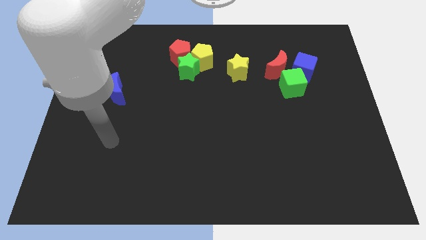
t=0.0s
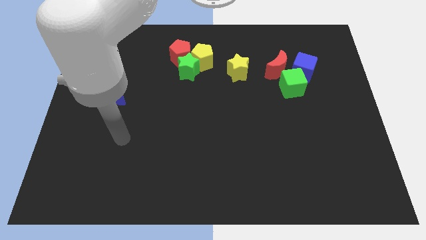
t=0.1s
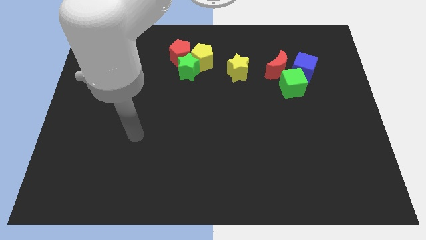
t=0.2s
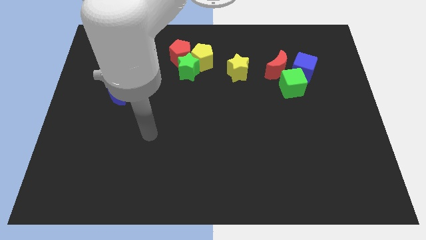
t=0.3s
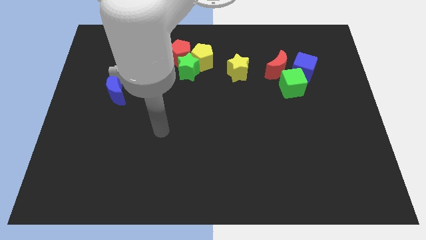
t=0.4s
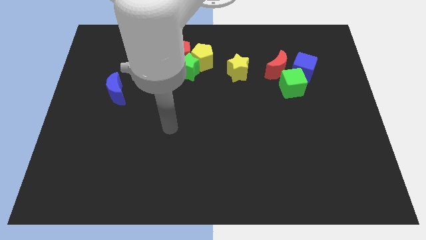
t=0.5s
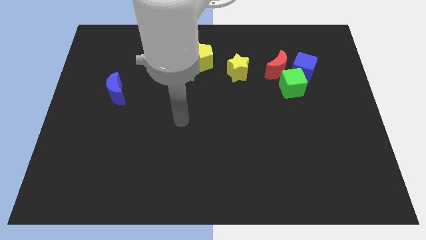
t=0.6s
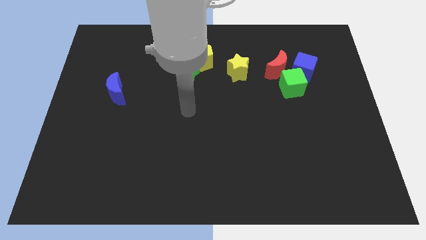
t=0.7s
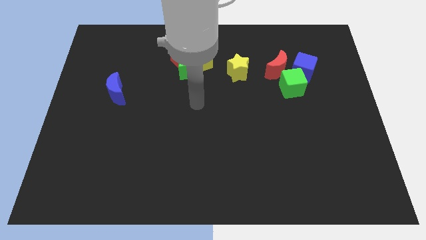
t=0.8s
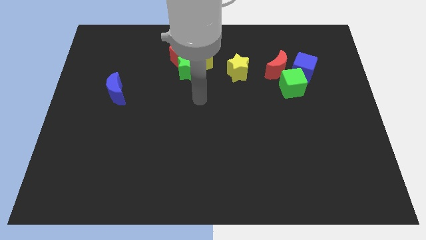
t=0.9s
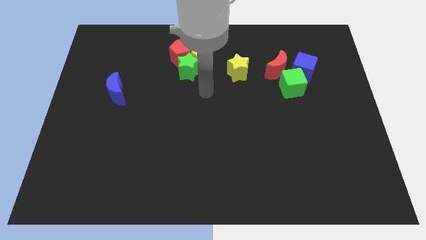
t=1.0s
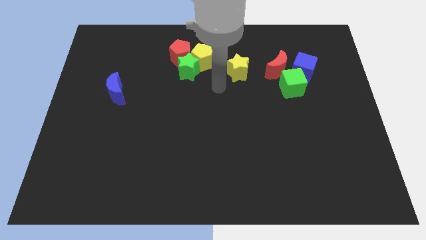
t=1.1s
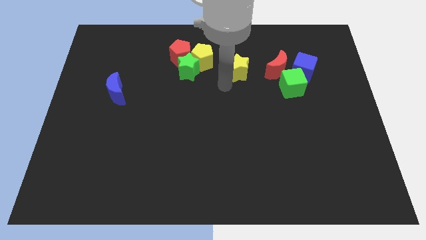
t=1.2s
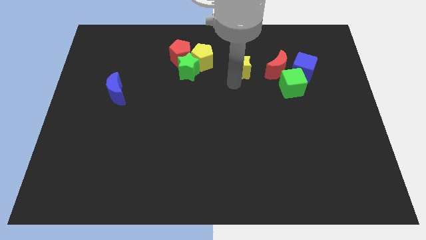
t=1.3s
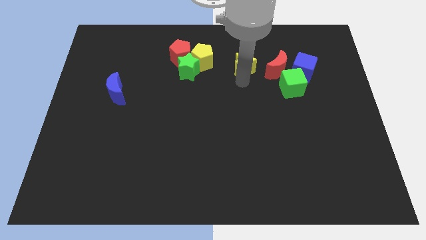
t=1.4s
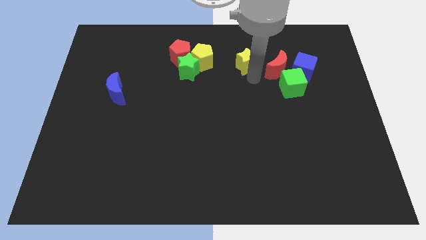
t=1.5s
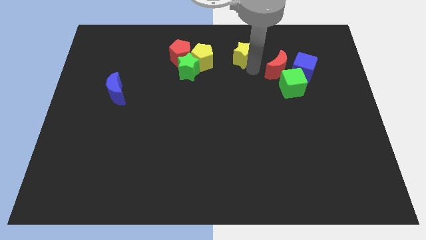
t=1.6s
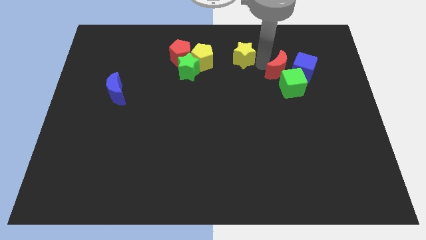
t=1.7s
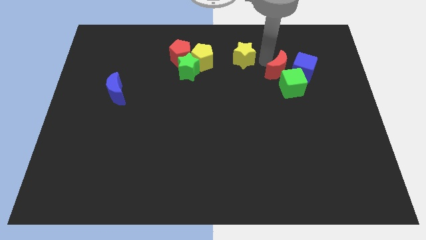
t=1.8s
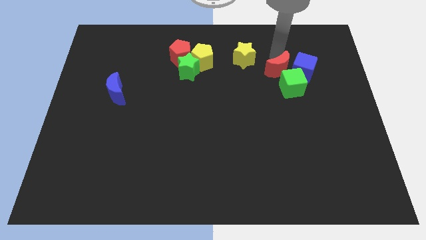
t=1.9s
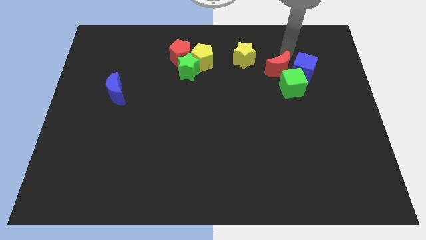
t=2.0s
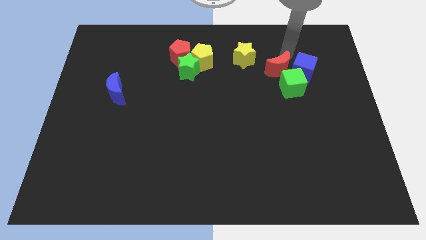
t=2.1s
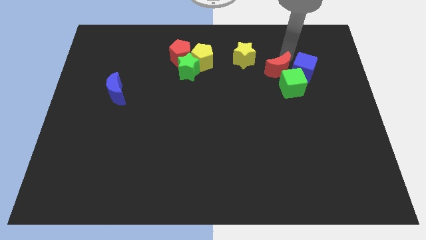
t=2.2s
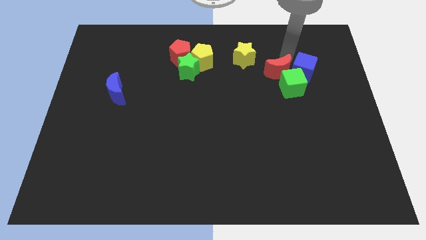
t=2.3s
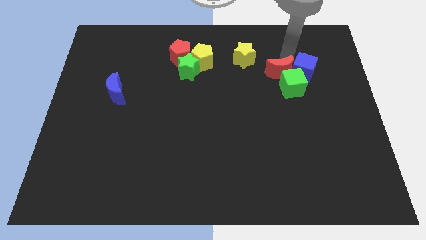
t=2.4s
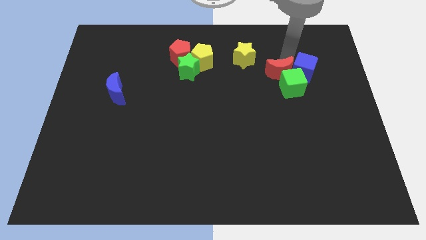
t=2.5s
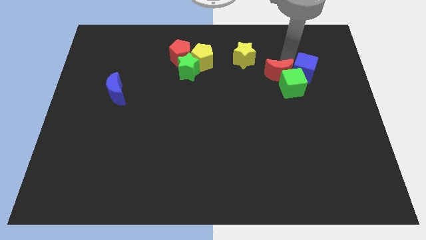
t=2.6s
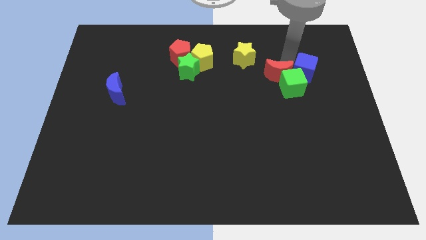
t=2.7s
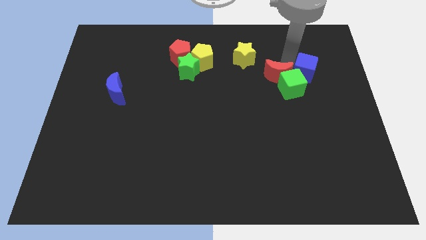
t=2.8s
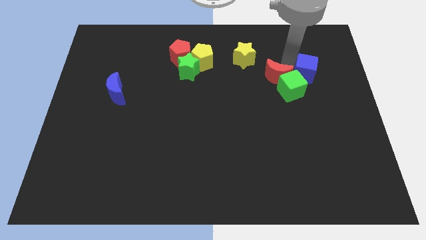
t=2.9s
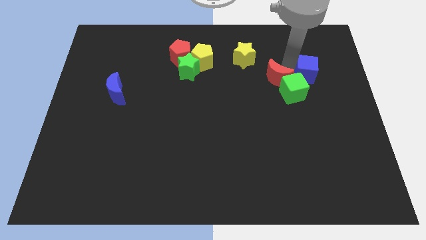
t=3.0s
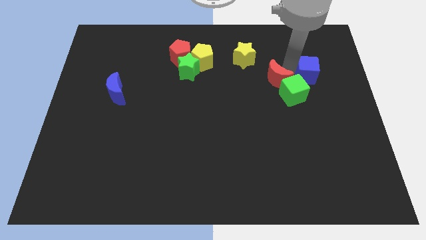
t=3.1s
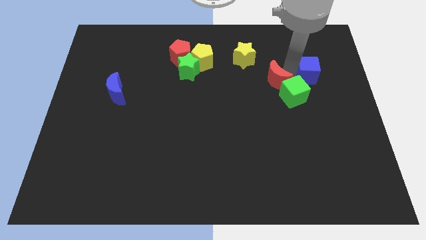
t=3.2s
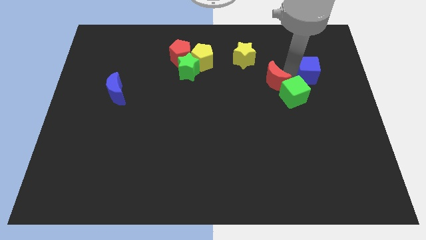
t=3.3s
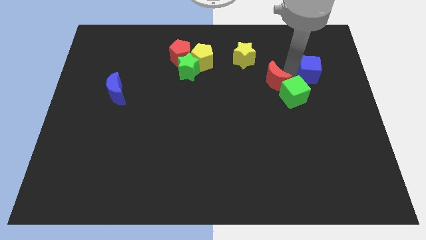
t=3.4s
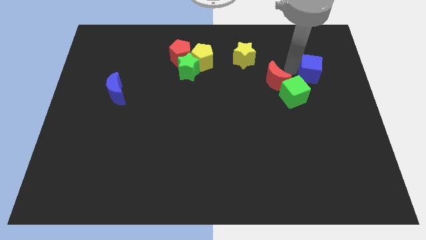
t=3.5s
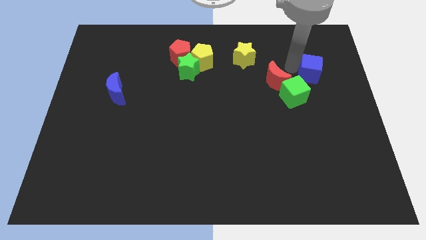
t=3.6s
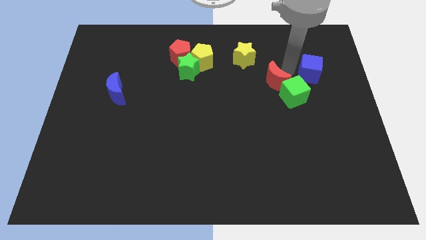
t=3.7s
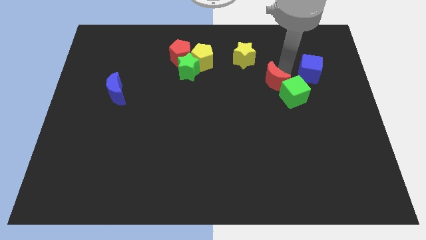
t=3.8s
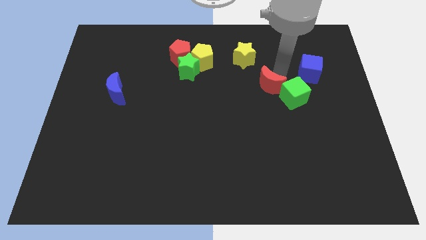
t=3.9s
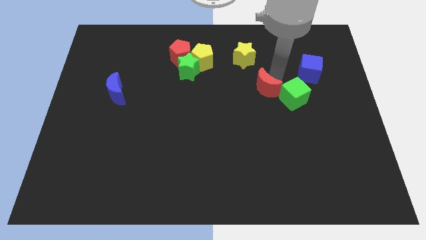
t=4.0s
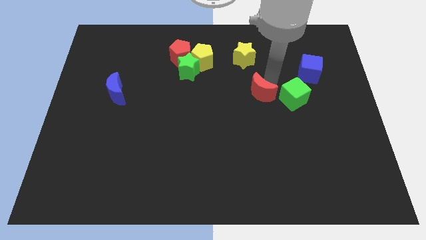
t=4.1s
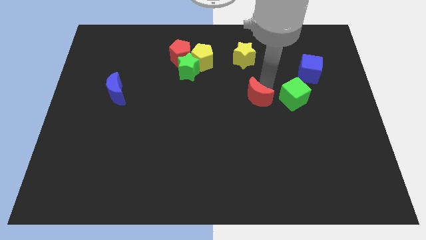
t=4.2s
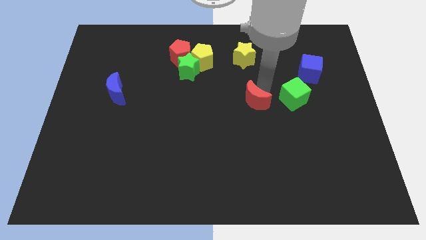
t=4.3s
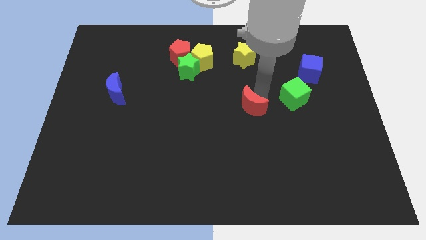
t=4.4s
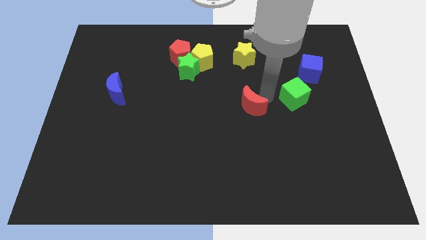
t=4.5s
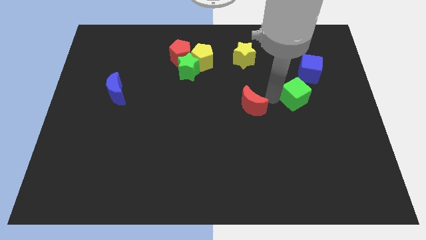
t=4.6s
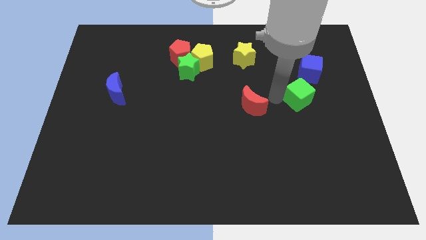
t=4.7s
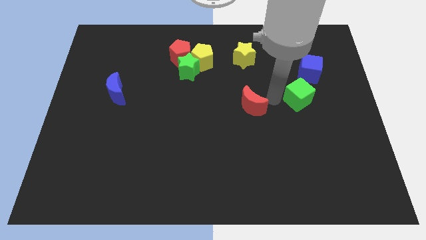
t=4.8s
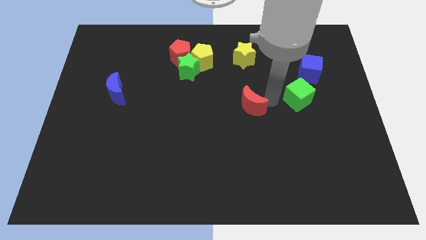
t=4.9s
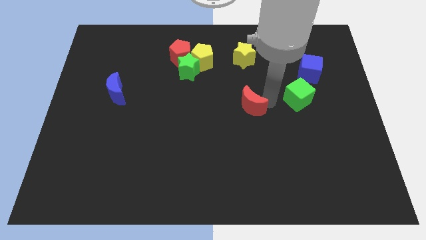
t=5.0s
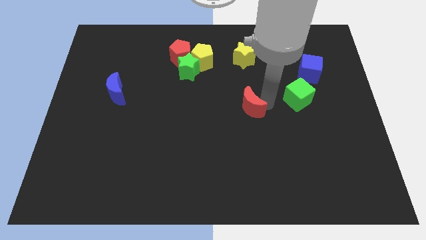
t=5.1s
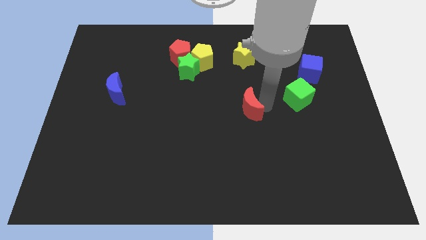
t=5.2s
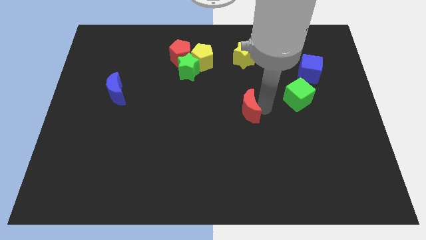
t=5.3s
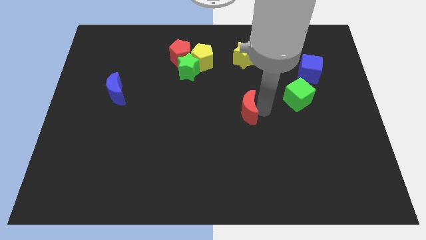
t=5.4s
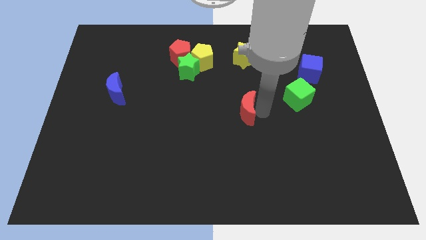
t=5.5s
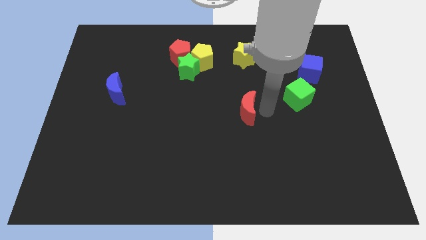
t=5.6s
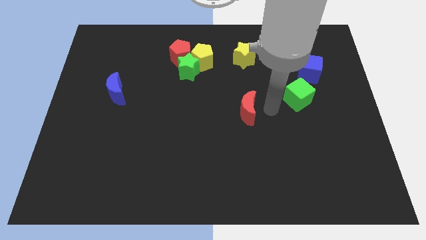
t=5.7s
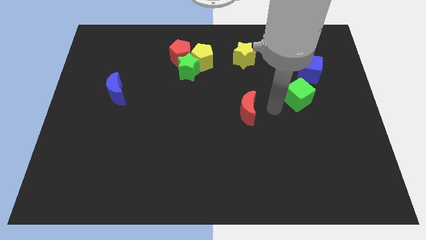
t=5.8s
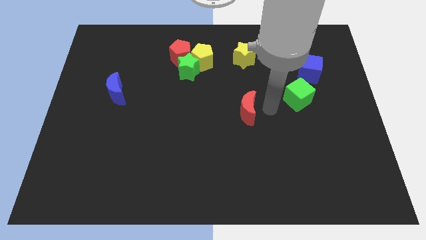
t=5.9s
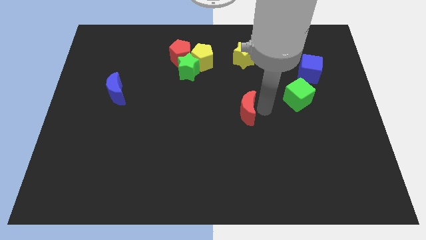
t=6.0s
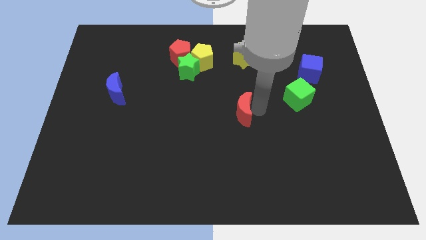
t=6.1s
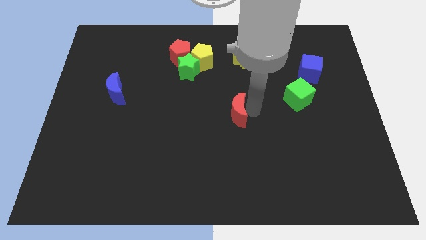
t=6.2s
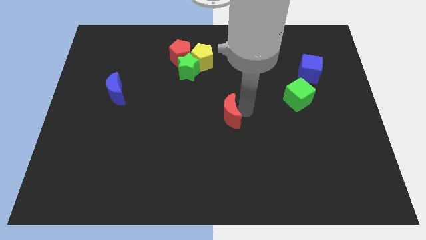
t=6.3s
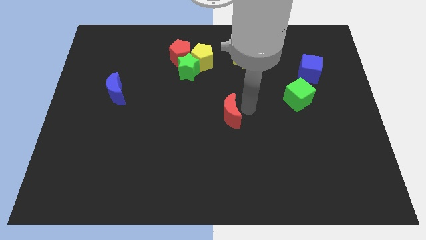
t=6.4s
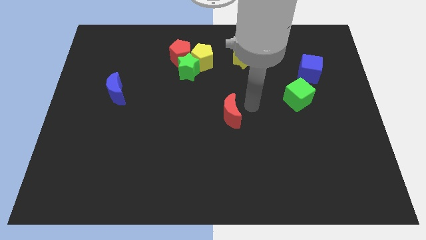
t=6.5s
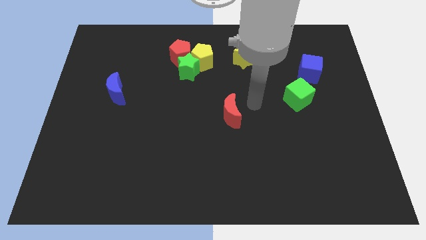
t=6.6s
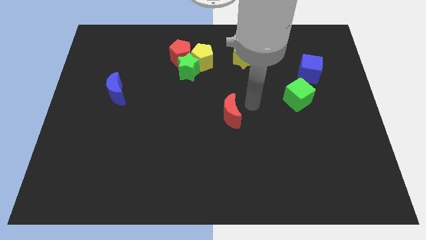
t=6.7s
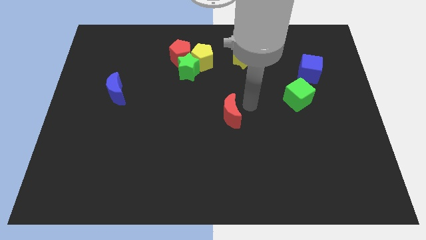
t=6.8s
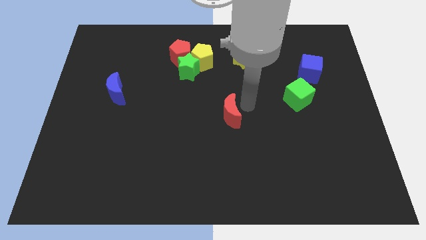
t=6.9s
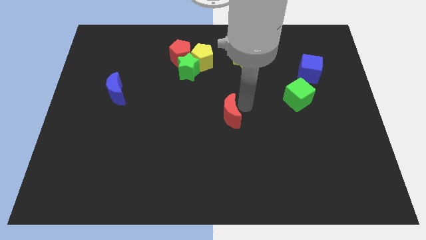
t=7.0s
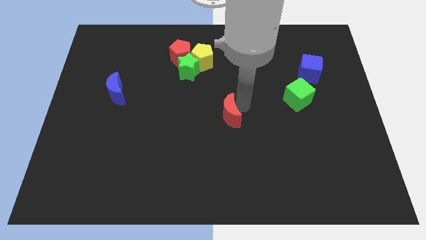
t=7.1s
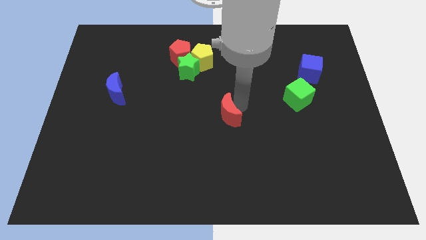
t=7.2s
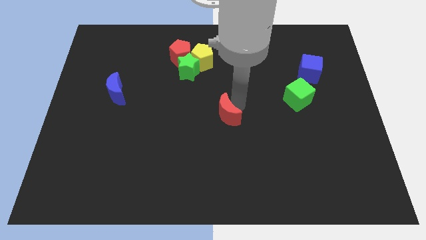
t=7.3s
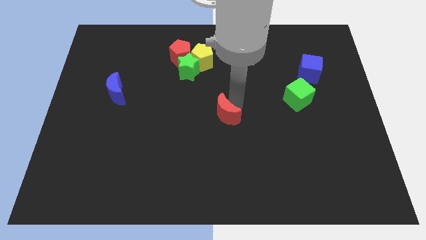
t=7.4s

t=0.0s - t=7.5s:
push the red moon down and then left

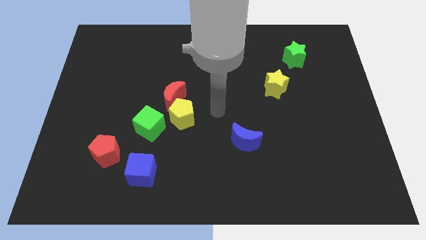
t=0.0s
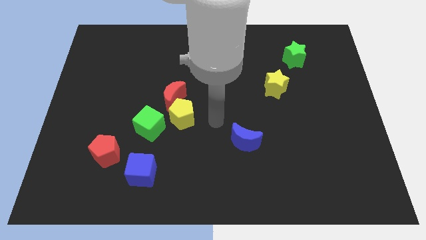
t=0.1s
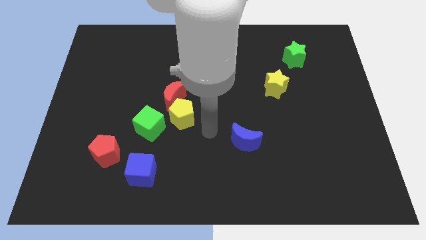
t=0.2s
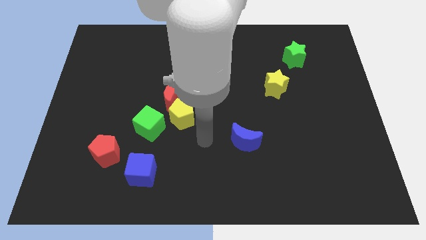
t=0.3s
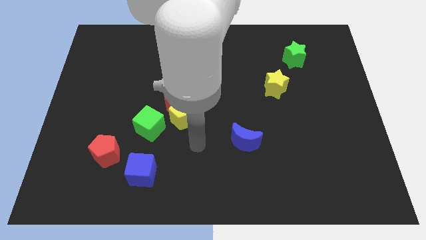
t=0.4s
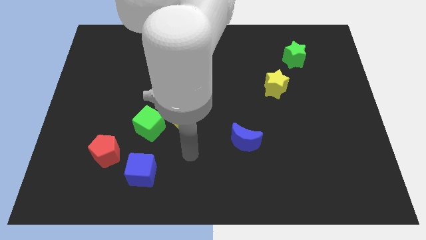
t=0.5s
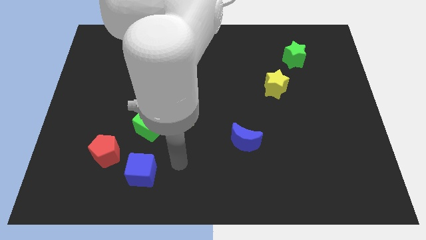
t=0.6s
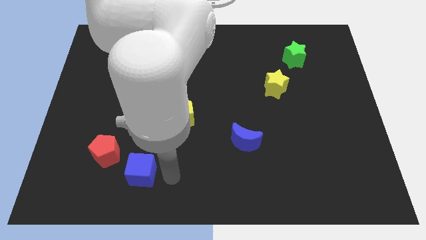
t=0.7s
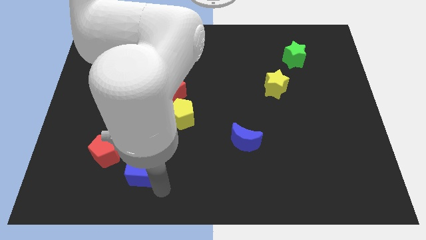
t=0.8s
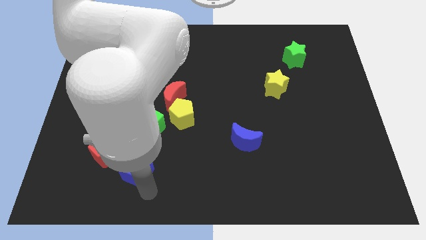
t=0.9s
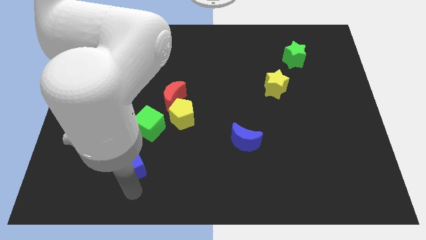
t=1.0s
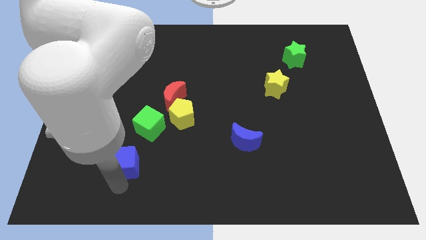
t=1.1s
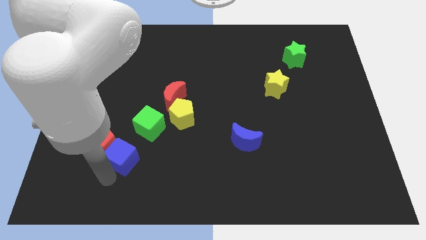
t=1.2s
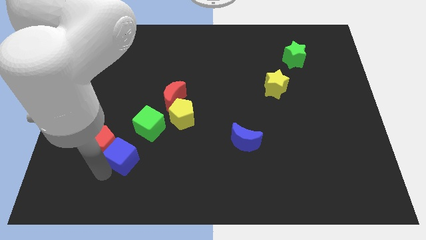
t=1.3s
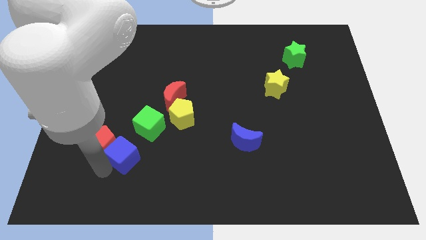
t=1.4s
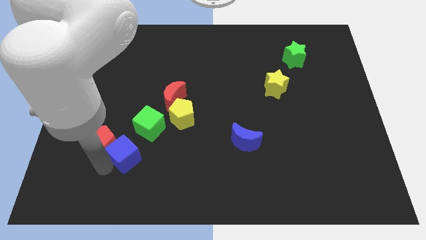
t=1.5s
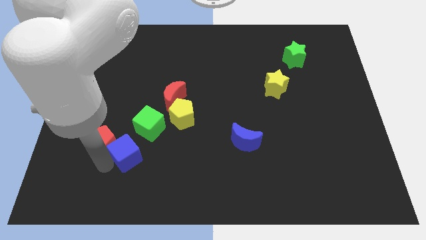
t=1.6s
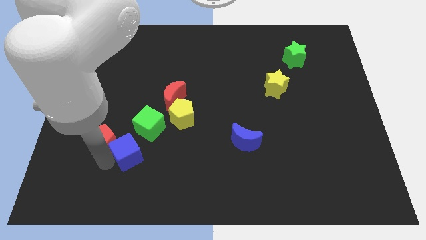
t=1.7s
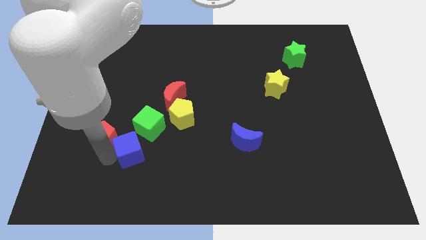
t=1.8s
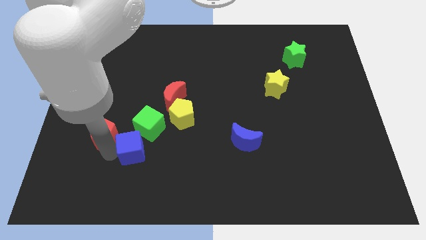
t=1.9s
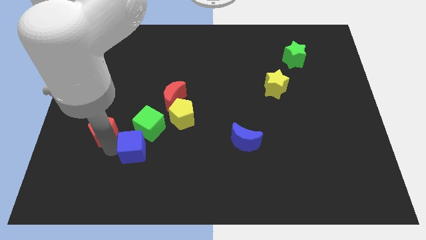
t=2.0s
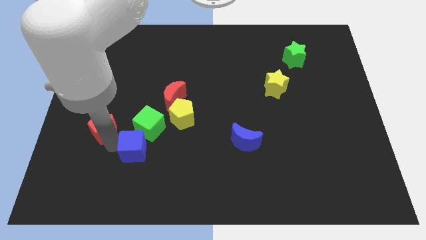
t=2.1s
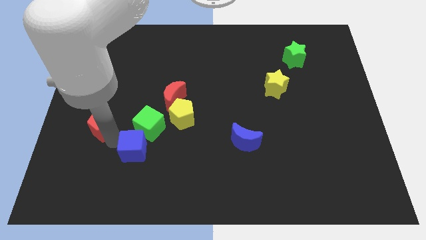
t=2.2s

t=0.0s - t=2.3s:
slightly push the red pentagon up
